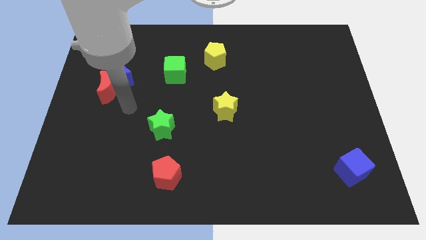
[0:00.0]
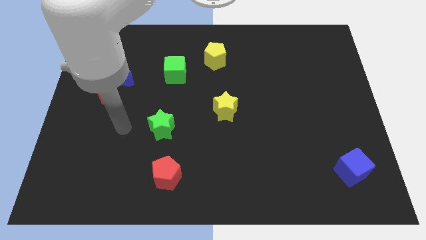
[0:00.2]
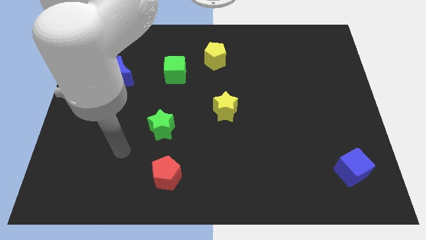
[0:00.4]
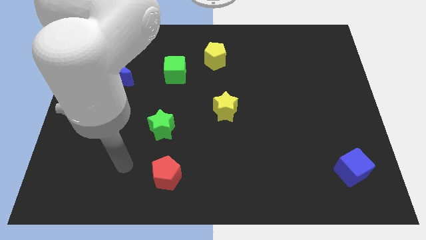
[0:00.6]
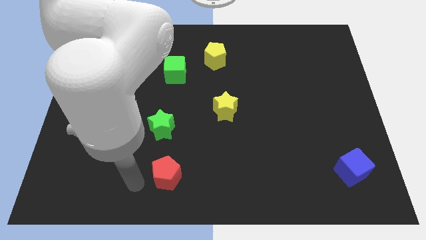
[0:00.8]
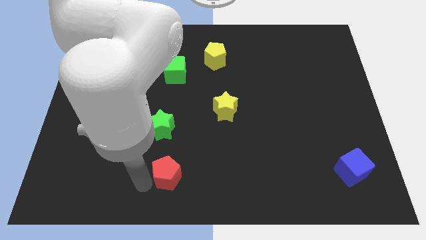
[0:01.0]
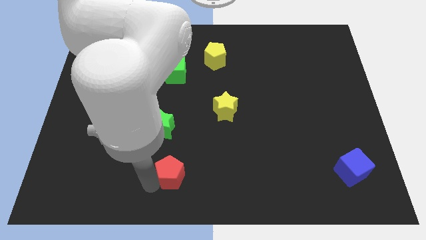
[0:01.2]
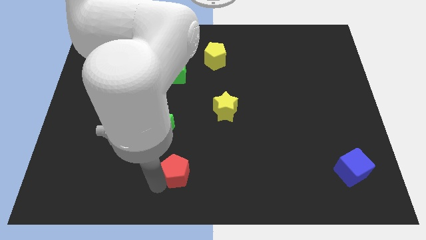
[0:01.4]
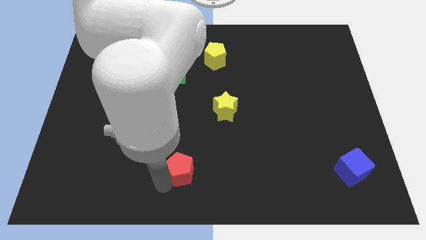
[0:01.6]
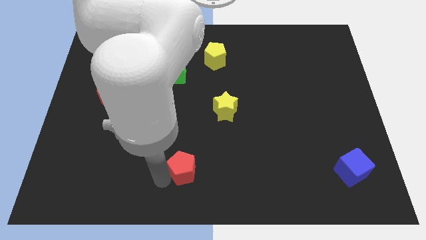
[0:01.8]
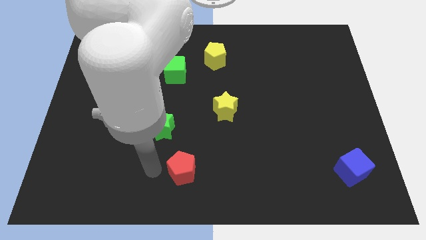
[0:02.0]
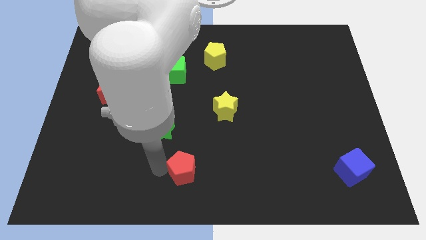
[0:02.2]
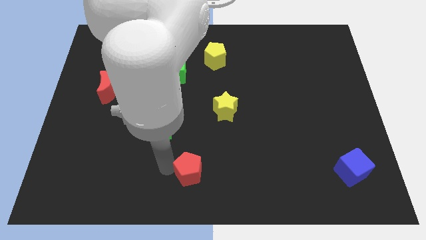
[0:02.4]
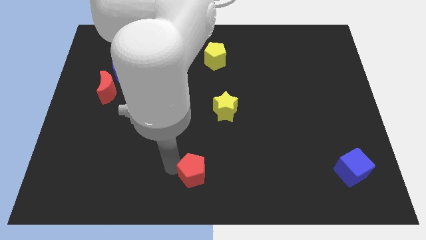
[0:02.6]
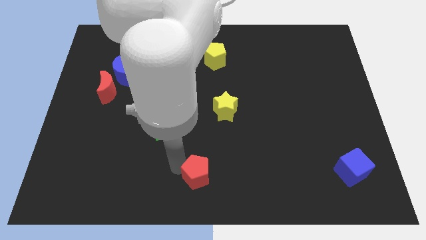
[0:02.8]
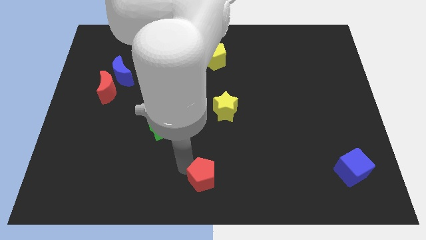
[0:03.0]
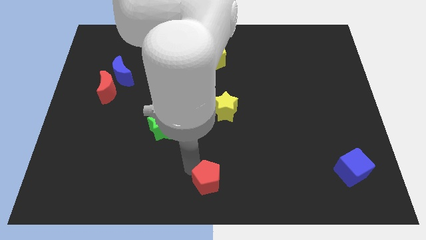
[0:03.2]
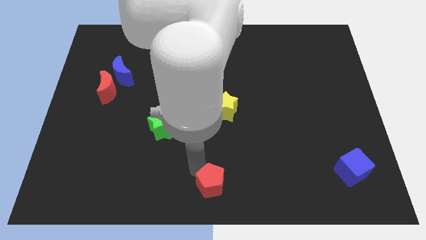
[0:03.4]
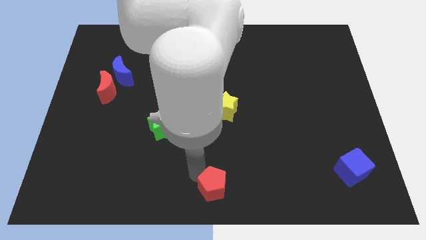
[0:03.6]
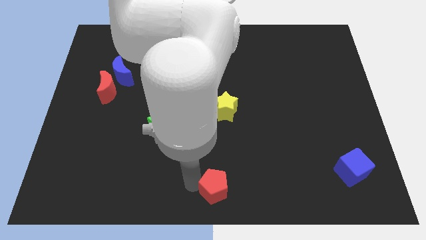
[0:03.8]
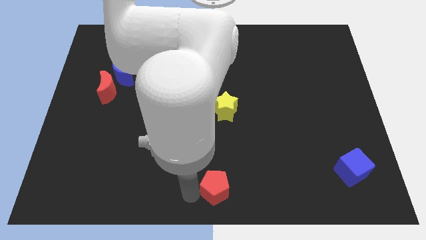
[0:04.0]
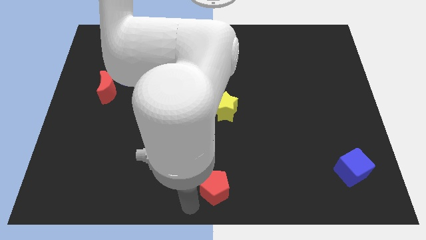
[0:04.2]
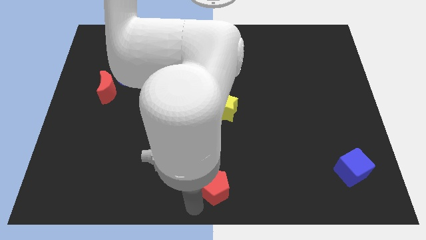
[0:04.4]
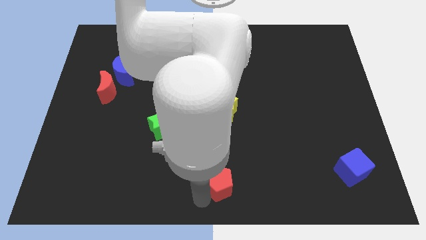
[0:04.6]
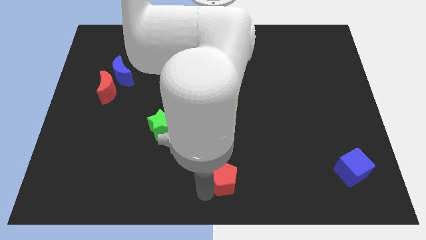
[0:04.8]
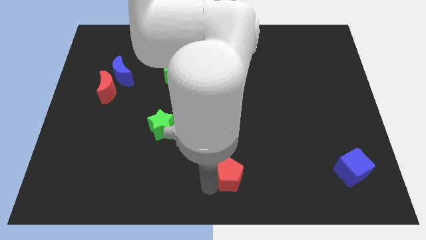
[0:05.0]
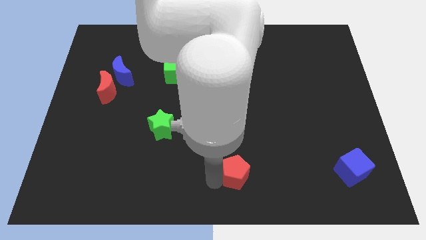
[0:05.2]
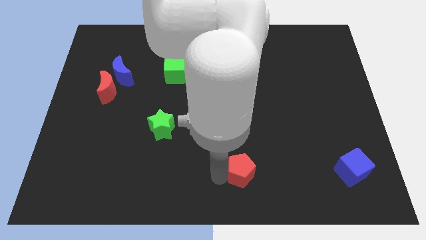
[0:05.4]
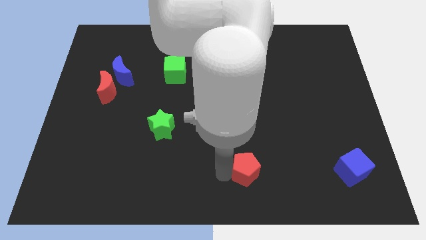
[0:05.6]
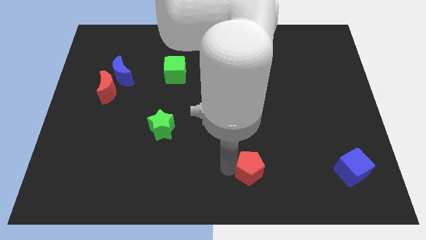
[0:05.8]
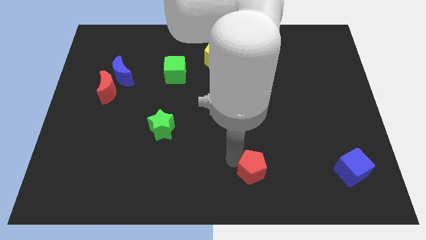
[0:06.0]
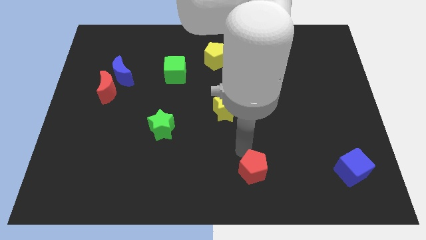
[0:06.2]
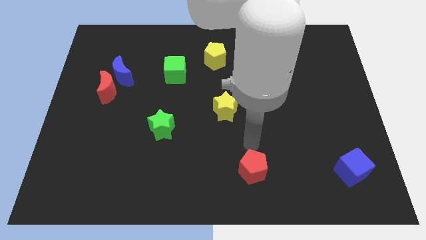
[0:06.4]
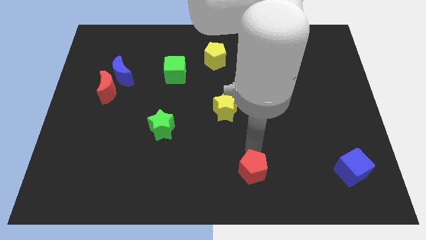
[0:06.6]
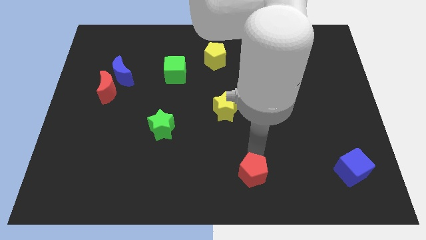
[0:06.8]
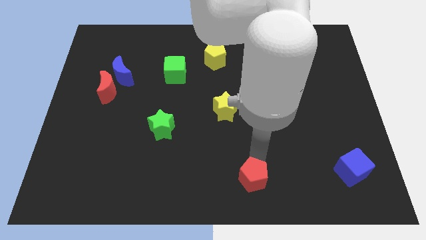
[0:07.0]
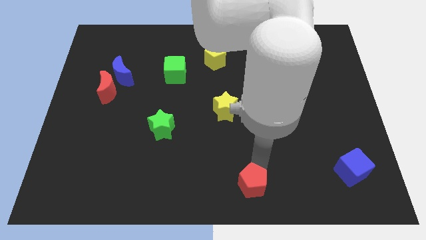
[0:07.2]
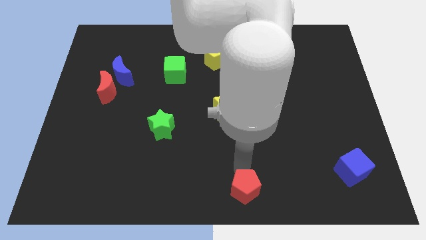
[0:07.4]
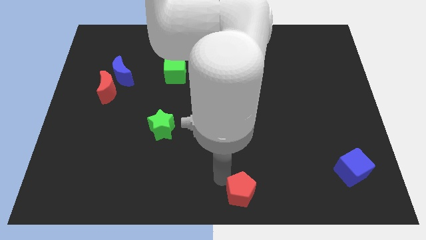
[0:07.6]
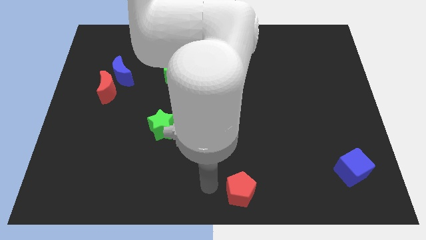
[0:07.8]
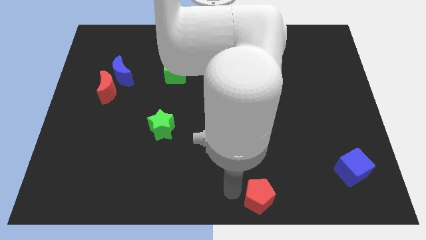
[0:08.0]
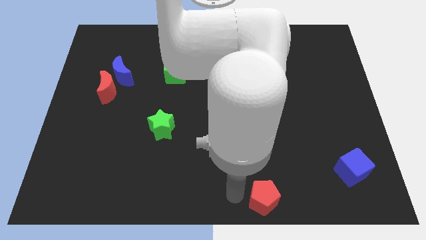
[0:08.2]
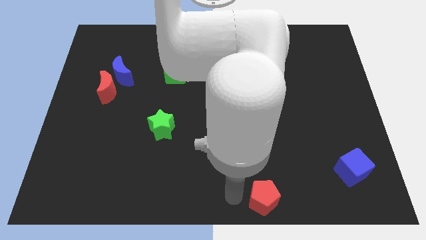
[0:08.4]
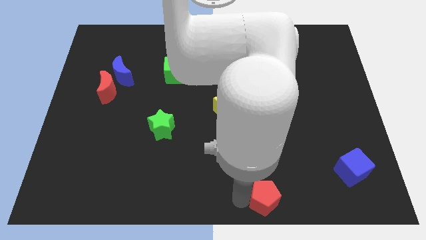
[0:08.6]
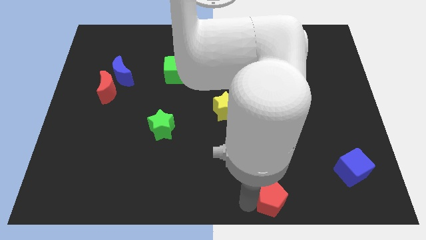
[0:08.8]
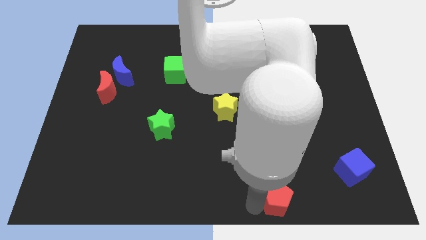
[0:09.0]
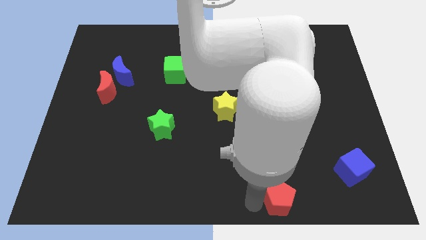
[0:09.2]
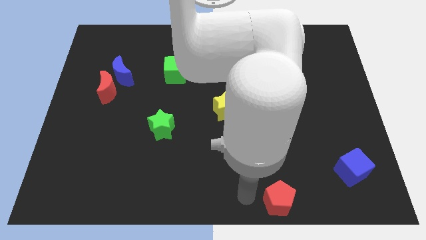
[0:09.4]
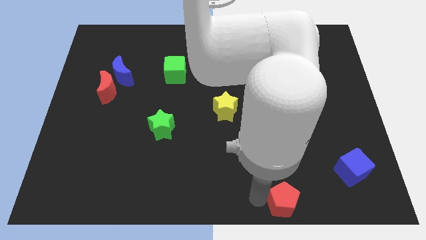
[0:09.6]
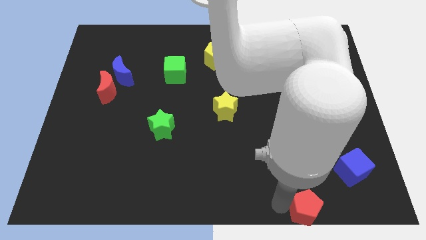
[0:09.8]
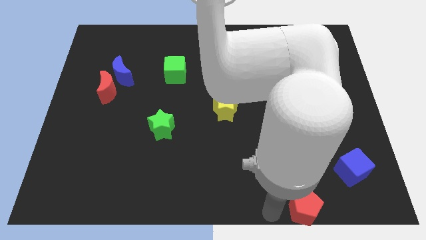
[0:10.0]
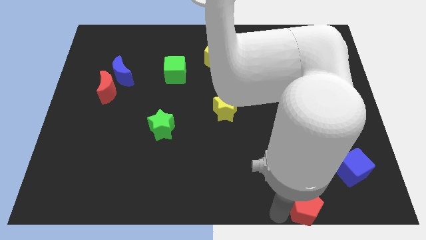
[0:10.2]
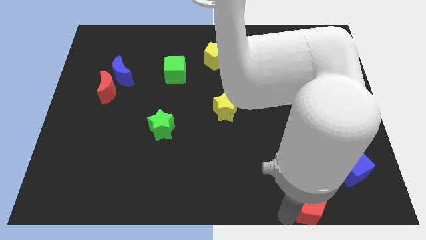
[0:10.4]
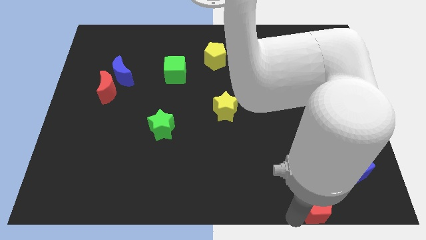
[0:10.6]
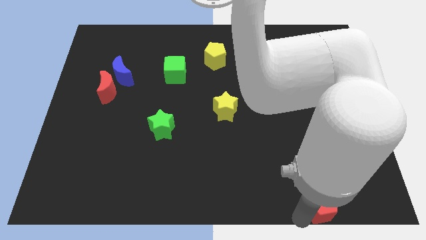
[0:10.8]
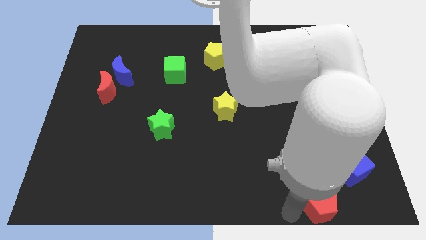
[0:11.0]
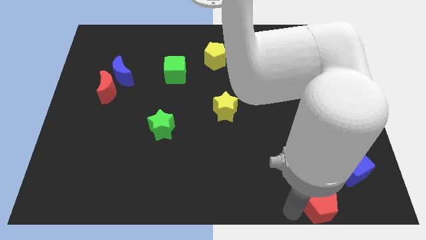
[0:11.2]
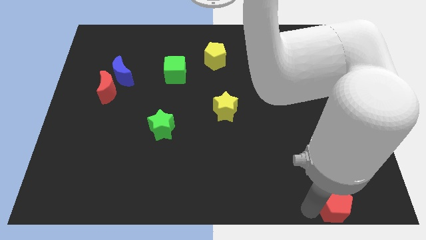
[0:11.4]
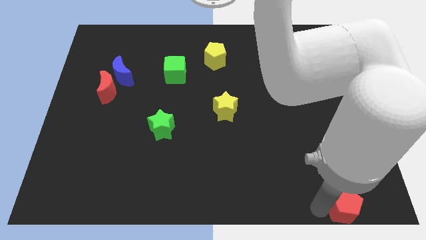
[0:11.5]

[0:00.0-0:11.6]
move the red pentagon to the lower right corner
